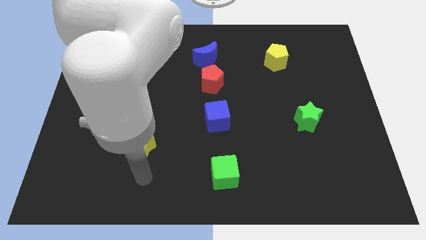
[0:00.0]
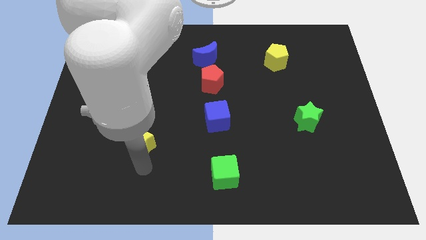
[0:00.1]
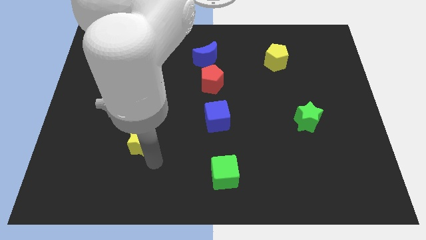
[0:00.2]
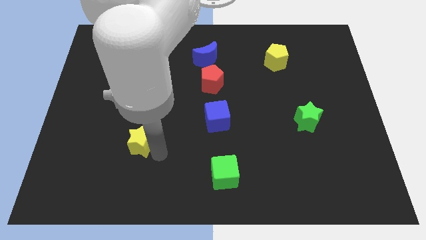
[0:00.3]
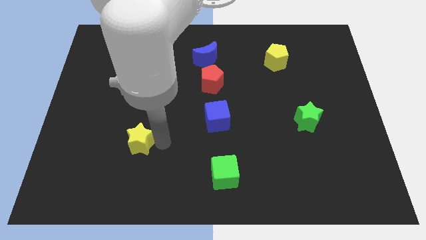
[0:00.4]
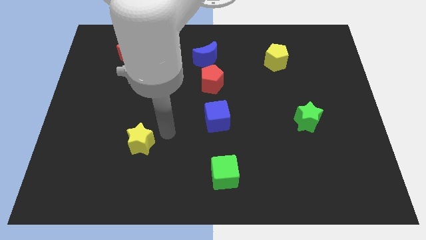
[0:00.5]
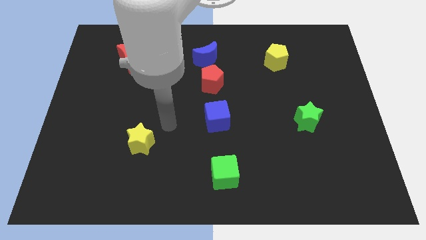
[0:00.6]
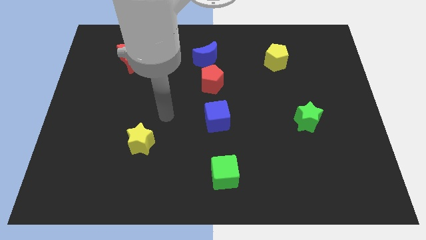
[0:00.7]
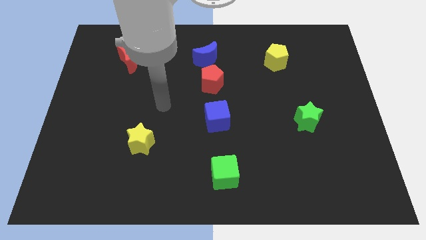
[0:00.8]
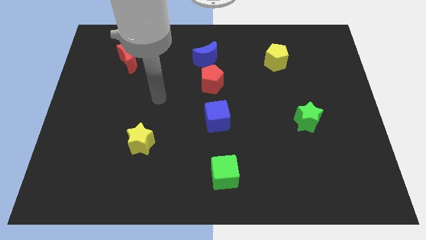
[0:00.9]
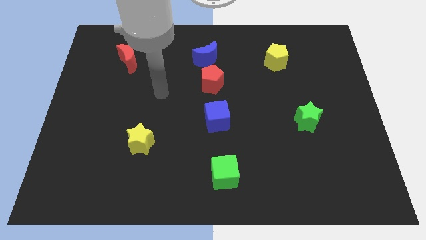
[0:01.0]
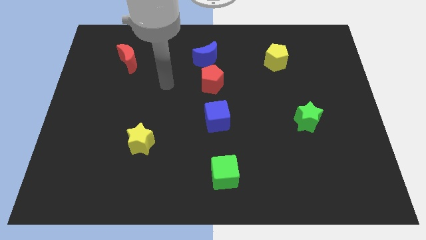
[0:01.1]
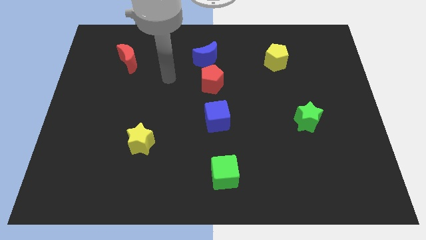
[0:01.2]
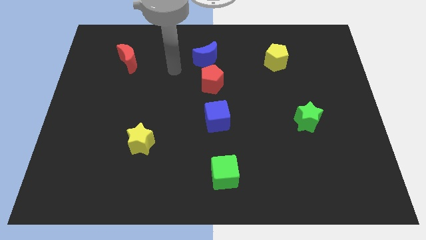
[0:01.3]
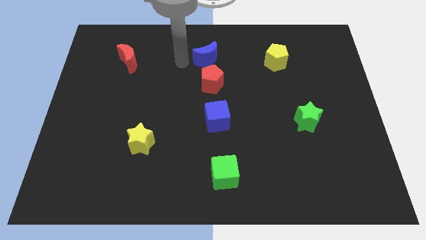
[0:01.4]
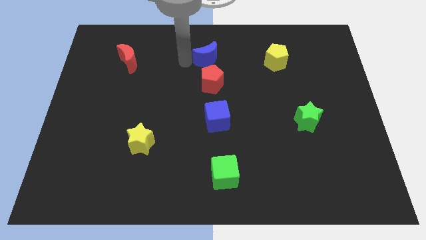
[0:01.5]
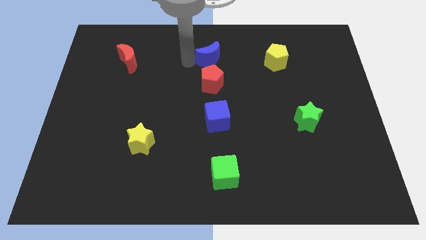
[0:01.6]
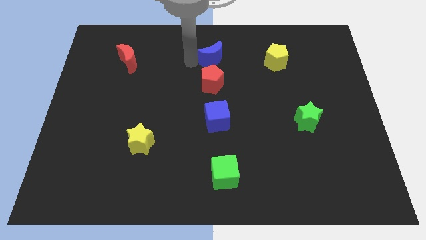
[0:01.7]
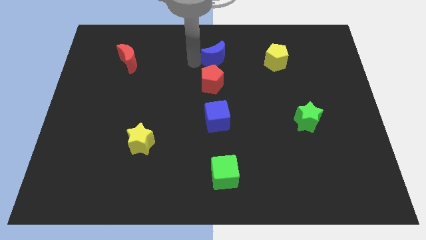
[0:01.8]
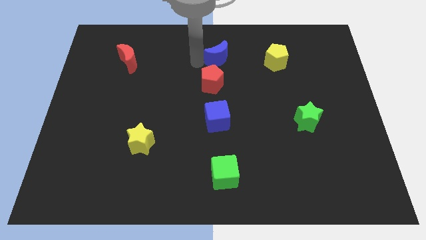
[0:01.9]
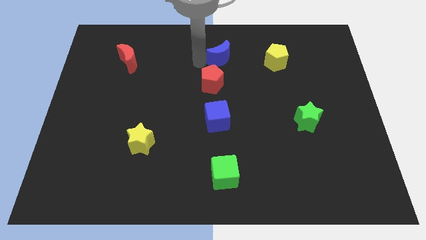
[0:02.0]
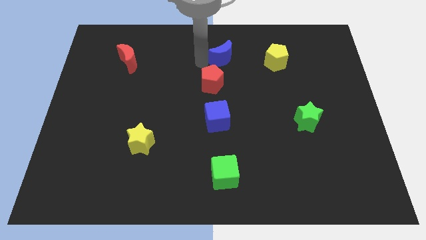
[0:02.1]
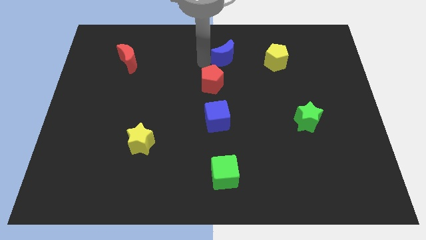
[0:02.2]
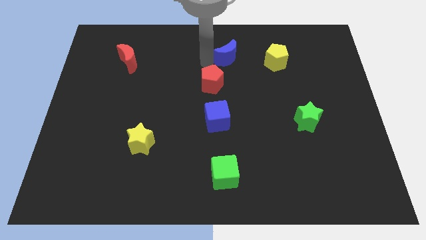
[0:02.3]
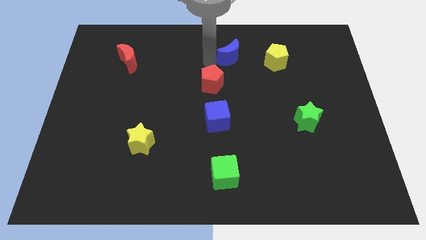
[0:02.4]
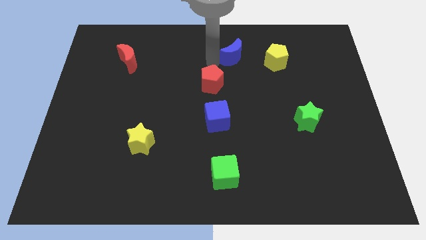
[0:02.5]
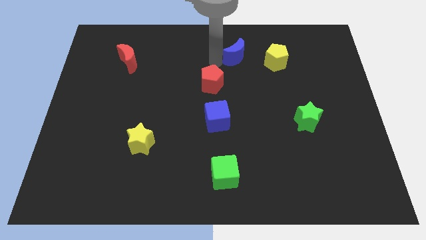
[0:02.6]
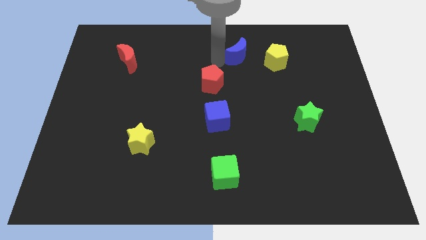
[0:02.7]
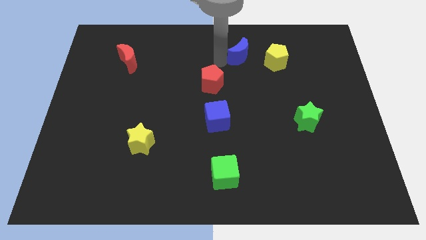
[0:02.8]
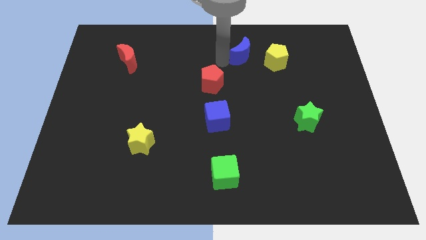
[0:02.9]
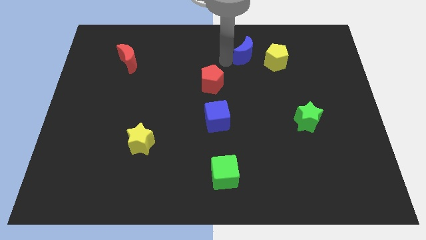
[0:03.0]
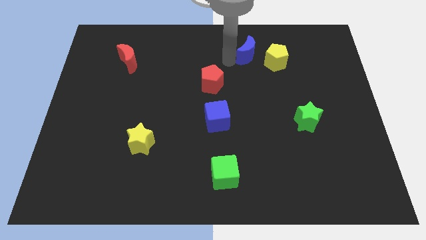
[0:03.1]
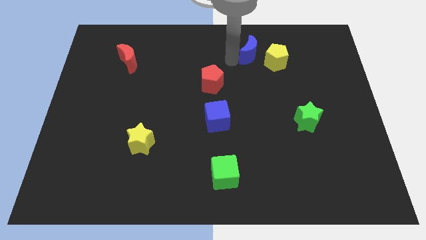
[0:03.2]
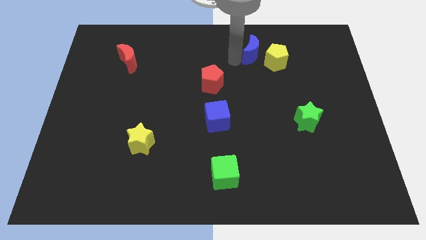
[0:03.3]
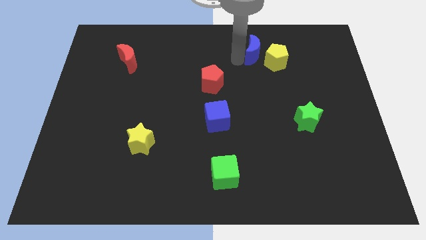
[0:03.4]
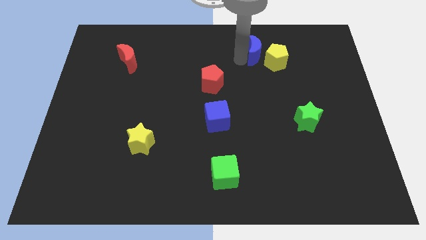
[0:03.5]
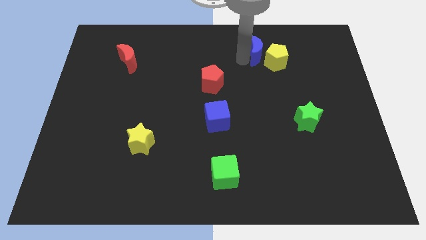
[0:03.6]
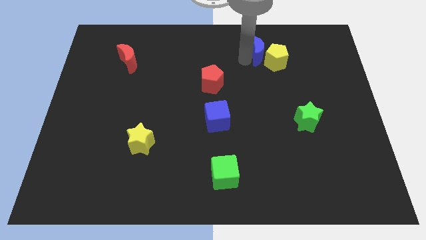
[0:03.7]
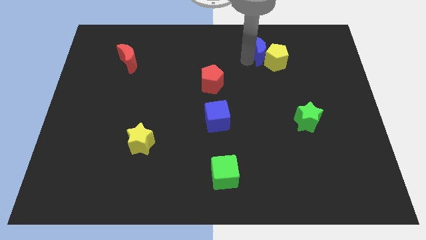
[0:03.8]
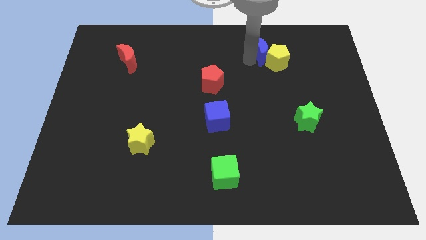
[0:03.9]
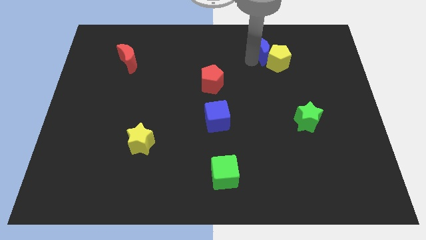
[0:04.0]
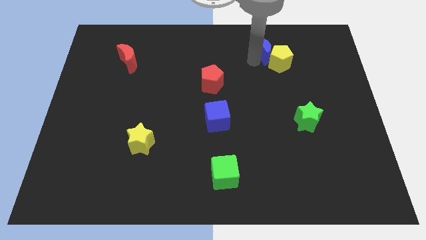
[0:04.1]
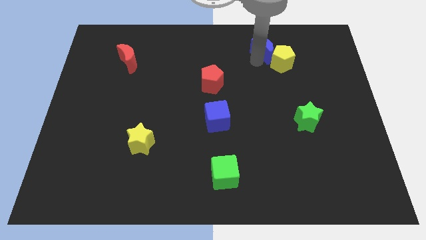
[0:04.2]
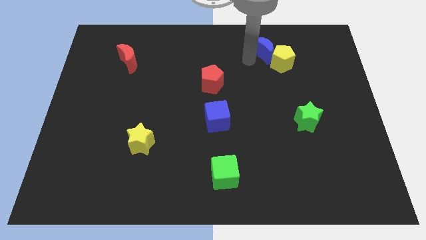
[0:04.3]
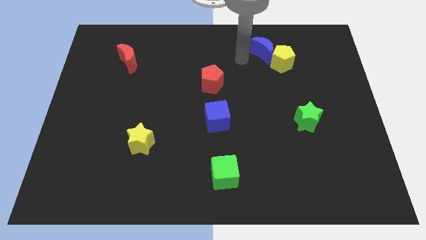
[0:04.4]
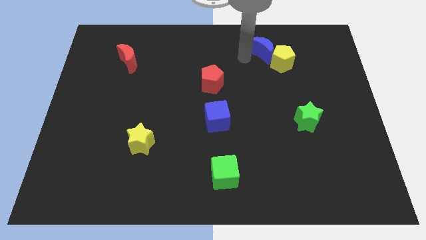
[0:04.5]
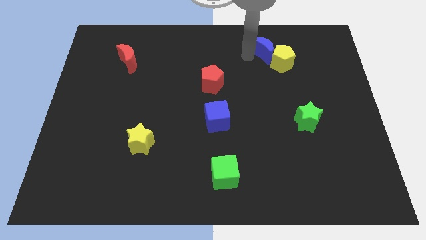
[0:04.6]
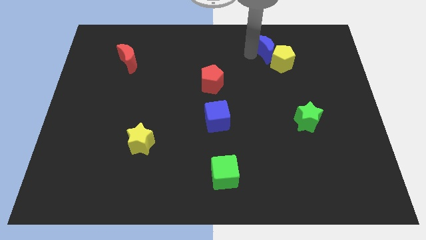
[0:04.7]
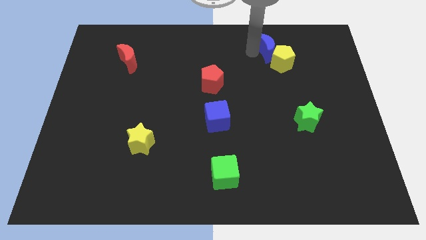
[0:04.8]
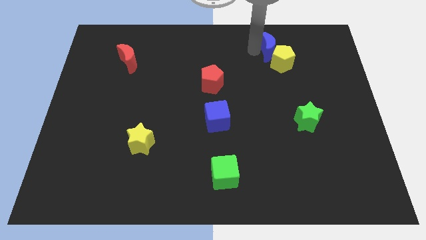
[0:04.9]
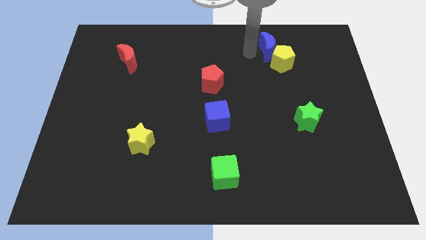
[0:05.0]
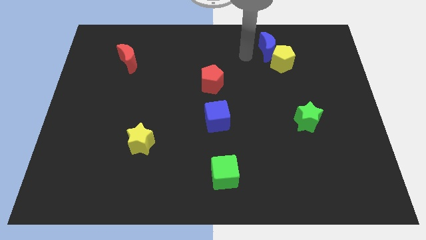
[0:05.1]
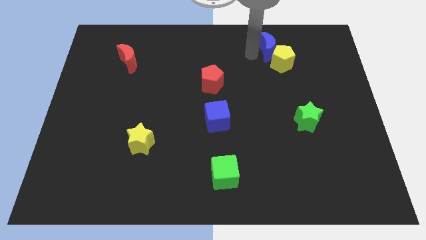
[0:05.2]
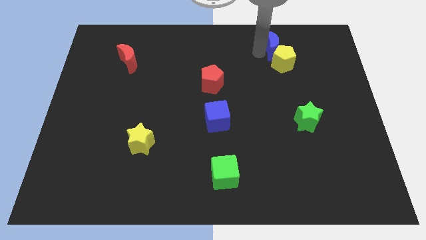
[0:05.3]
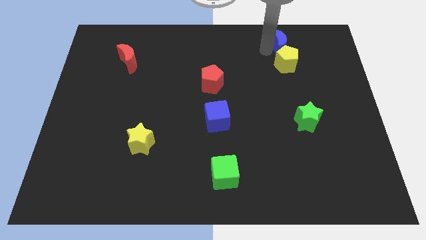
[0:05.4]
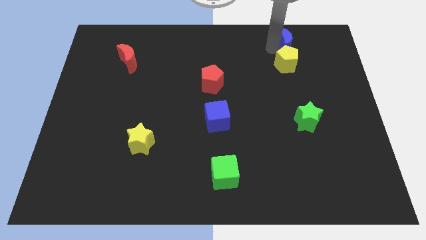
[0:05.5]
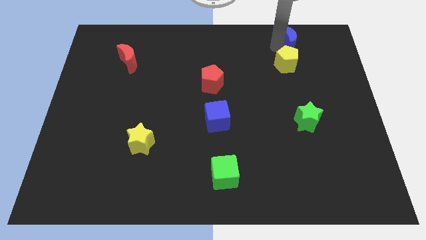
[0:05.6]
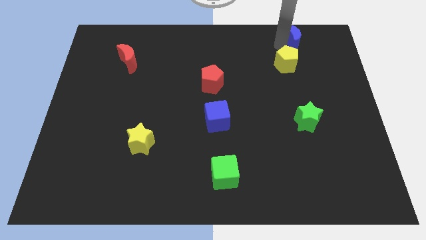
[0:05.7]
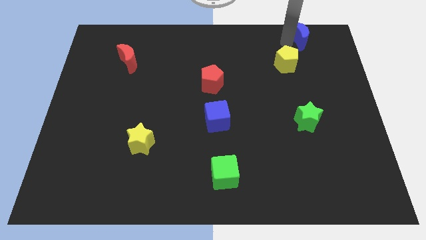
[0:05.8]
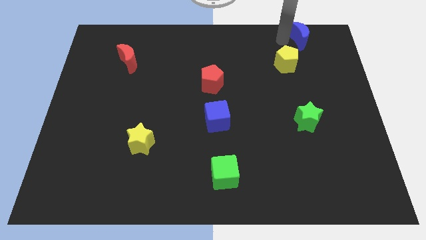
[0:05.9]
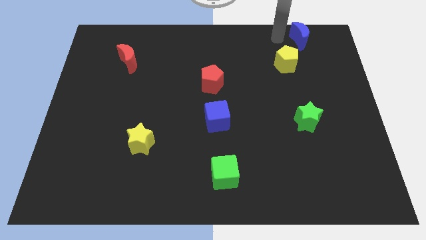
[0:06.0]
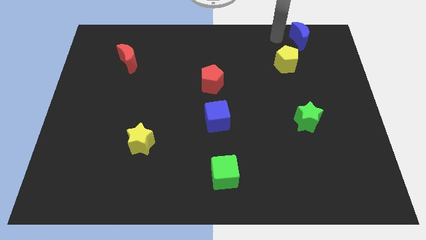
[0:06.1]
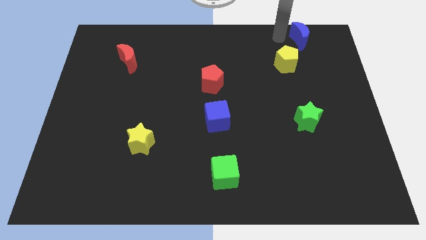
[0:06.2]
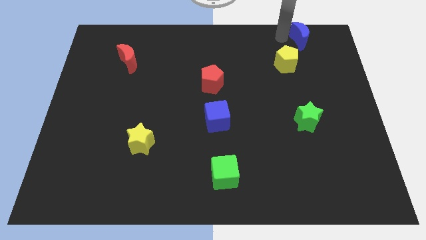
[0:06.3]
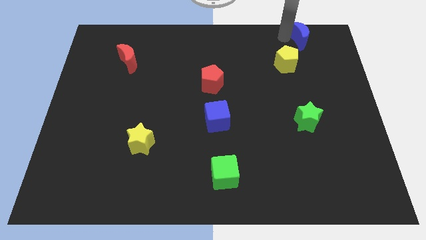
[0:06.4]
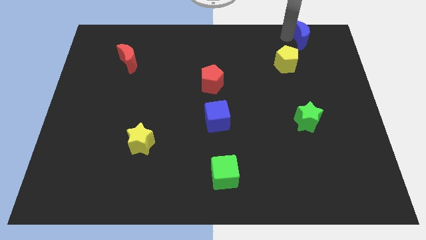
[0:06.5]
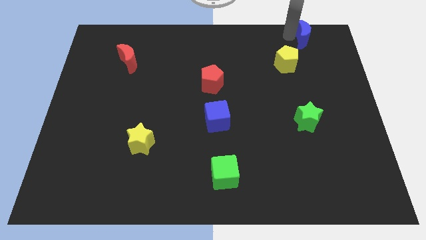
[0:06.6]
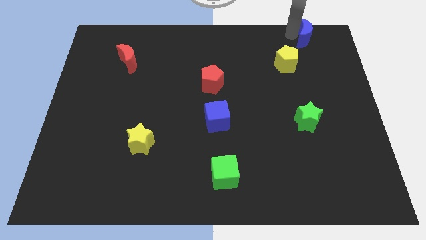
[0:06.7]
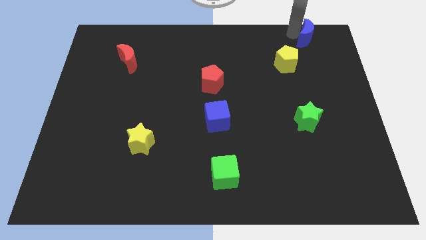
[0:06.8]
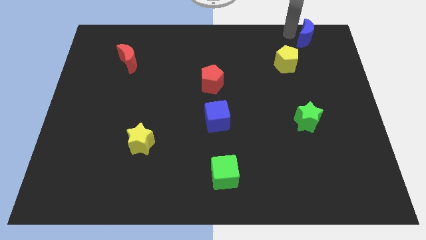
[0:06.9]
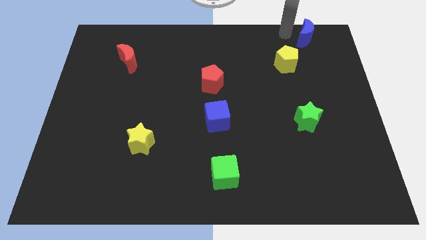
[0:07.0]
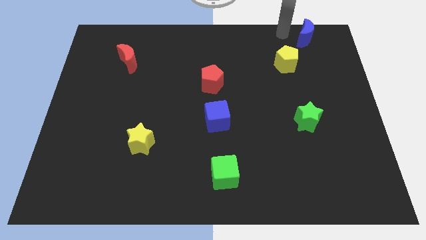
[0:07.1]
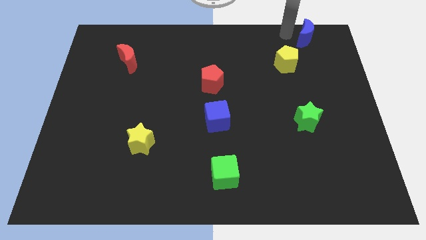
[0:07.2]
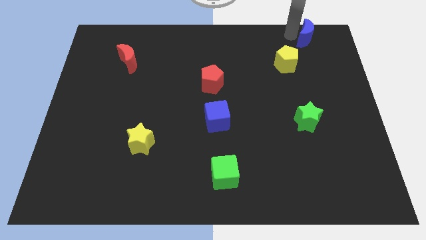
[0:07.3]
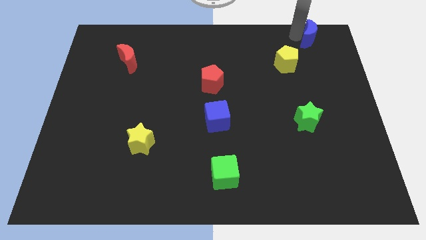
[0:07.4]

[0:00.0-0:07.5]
slide the blue moon to the top right

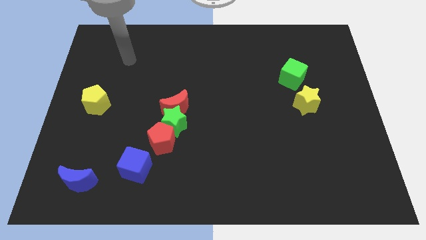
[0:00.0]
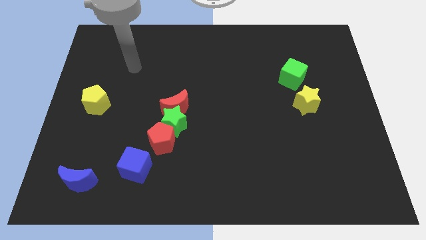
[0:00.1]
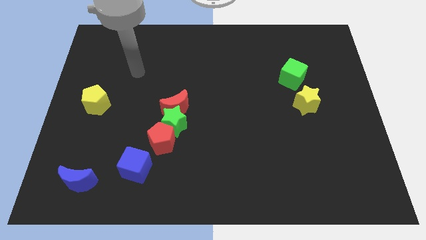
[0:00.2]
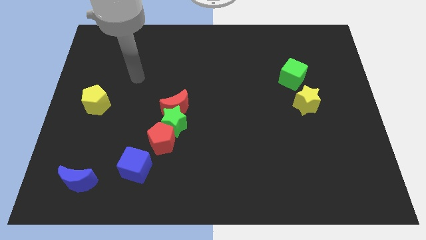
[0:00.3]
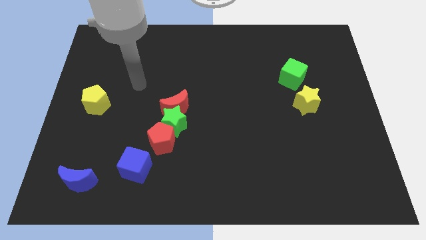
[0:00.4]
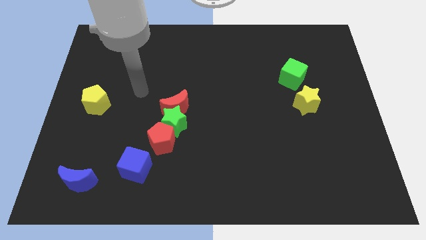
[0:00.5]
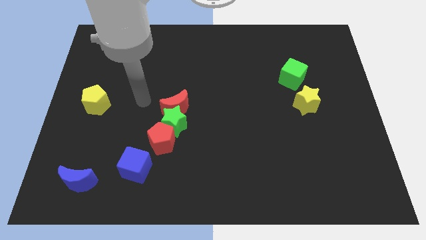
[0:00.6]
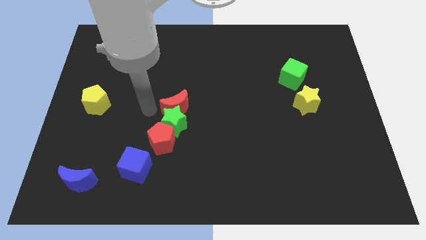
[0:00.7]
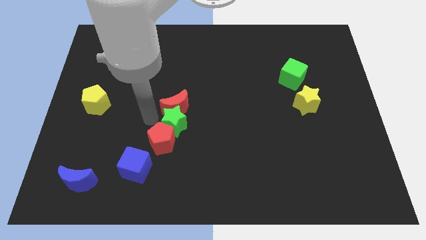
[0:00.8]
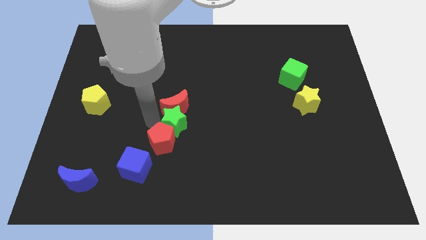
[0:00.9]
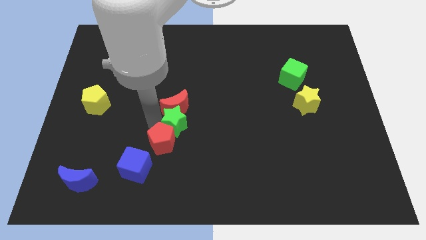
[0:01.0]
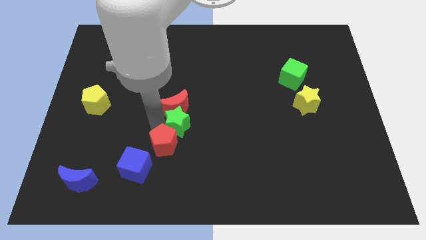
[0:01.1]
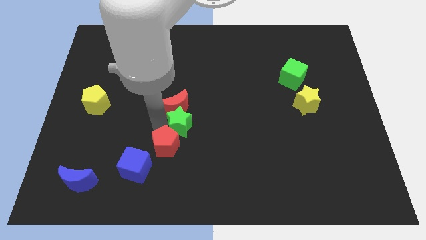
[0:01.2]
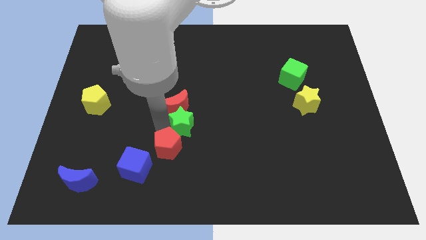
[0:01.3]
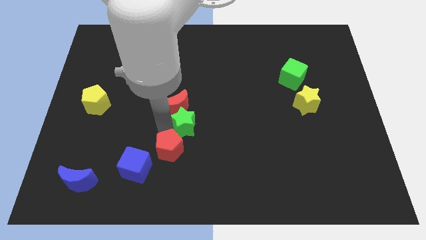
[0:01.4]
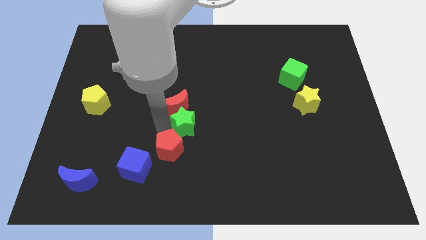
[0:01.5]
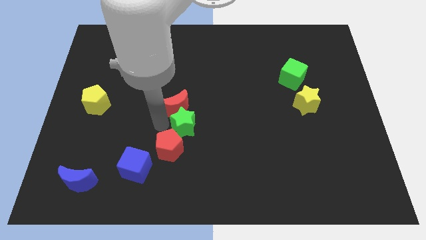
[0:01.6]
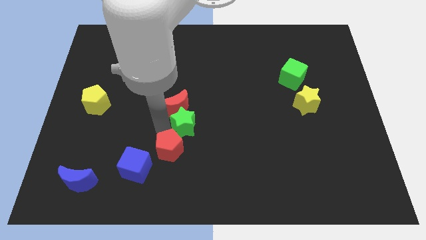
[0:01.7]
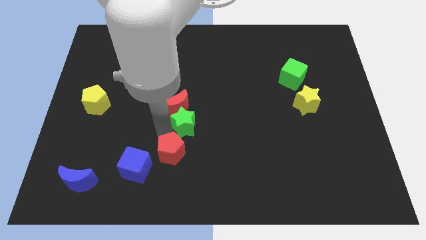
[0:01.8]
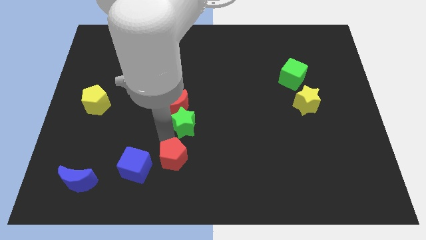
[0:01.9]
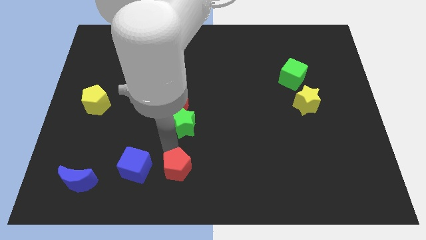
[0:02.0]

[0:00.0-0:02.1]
slide the red pentagon to the bottom
